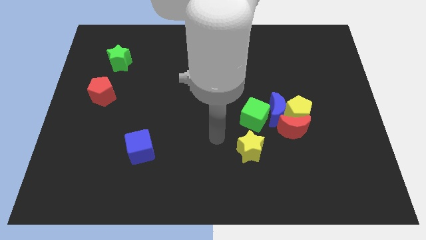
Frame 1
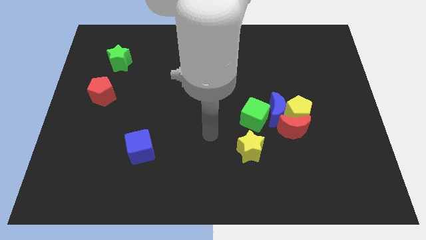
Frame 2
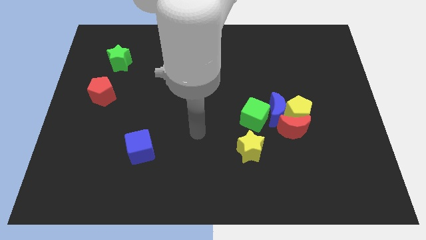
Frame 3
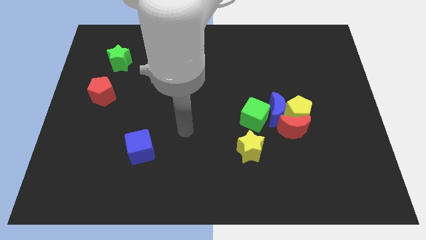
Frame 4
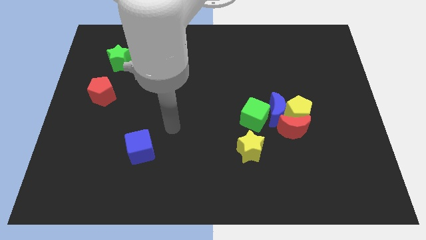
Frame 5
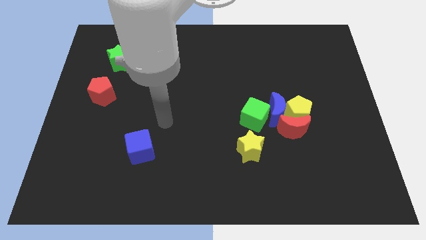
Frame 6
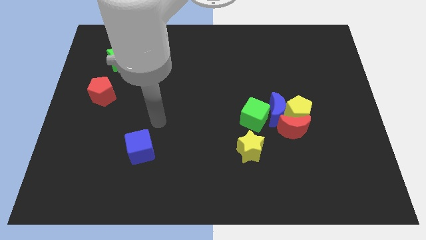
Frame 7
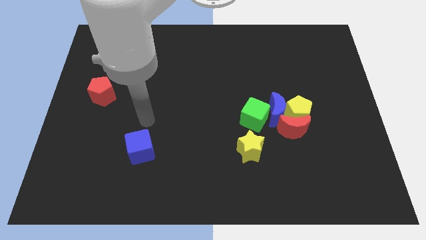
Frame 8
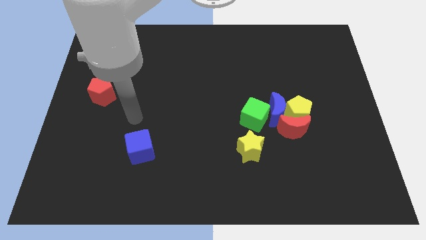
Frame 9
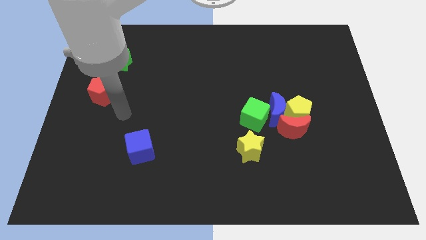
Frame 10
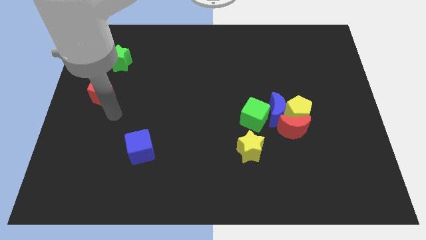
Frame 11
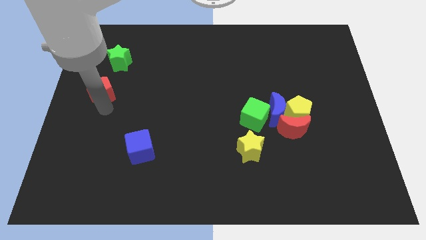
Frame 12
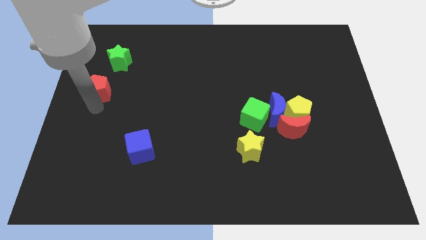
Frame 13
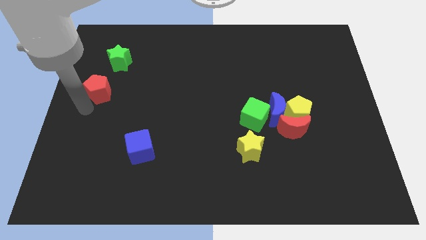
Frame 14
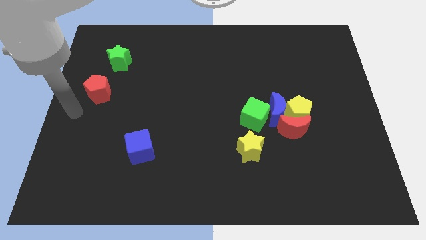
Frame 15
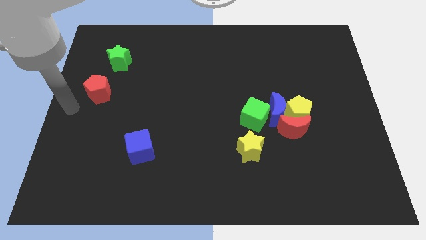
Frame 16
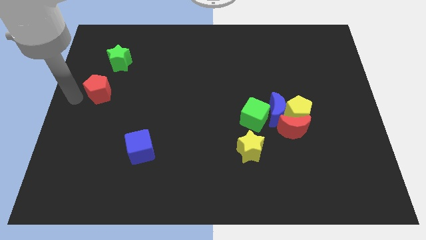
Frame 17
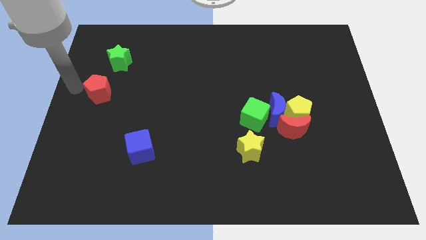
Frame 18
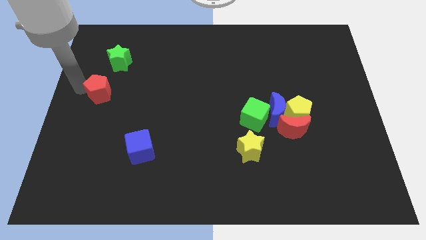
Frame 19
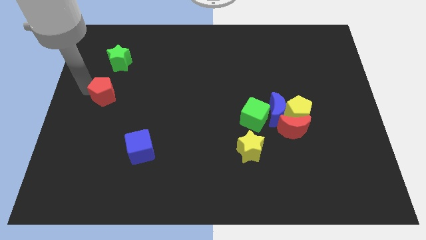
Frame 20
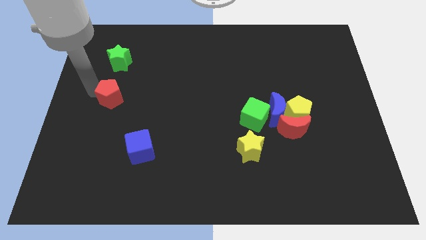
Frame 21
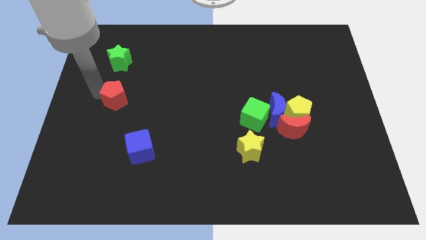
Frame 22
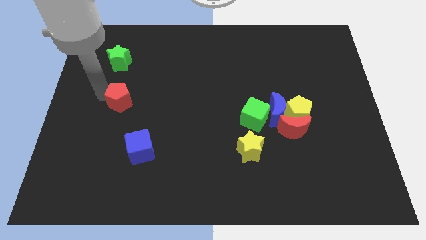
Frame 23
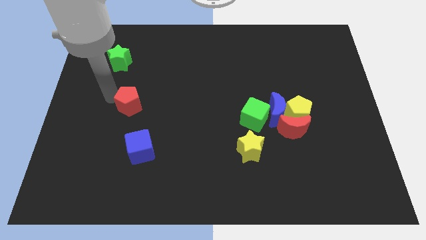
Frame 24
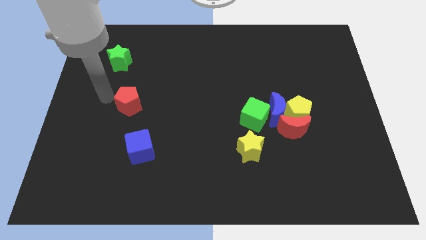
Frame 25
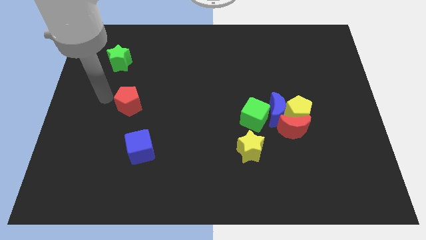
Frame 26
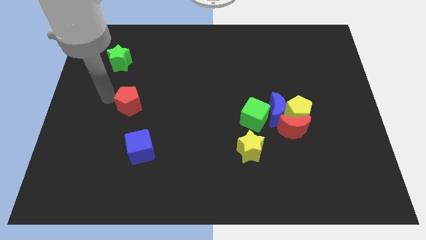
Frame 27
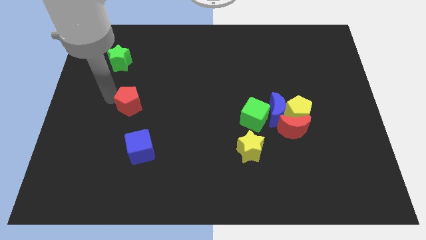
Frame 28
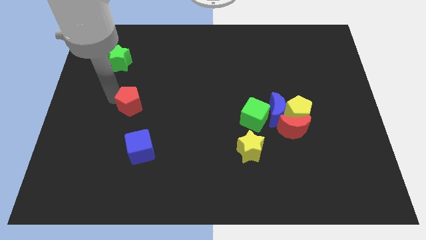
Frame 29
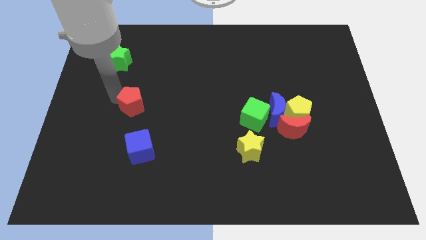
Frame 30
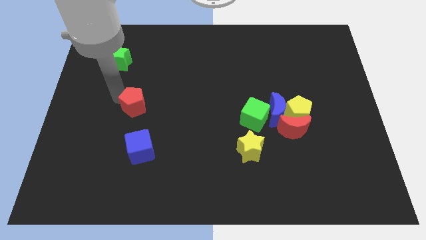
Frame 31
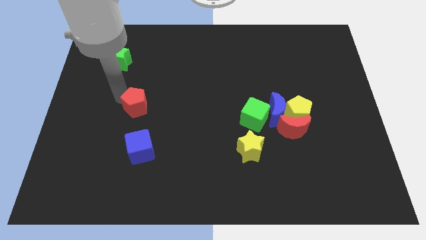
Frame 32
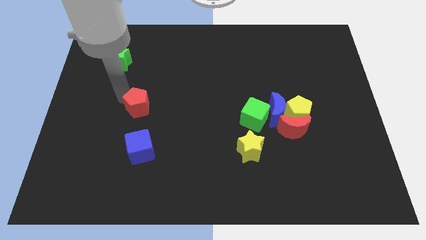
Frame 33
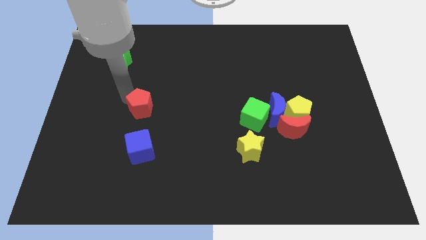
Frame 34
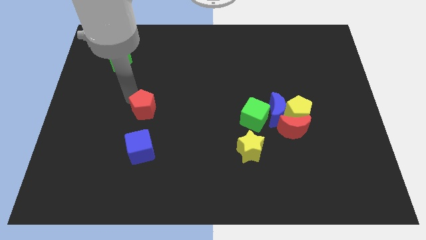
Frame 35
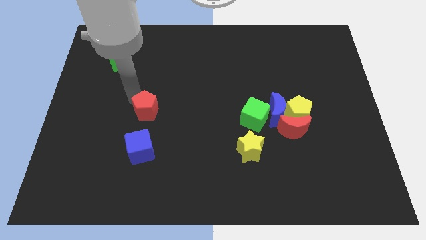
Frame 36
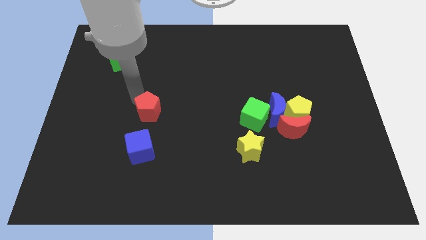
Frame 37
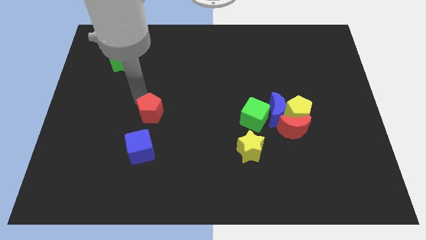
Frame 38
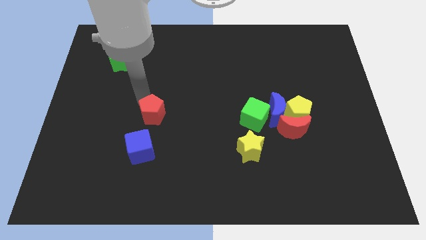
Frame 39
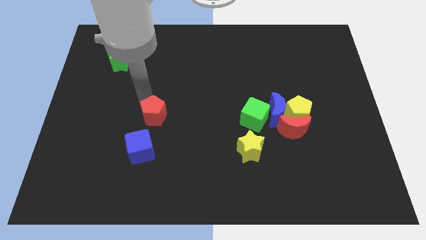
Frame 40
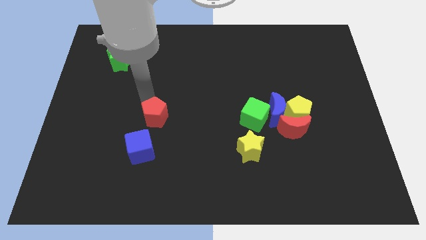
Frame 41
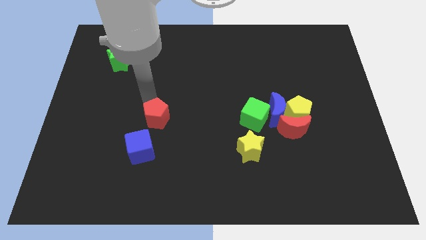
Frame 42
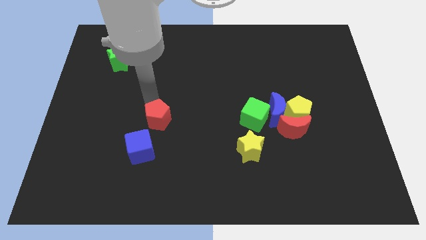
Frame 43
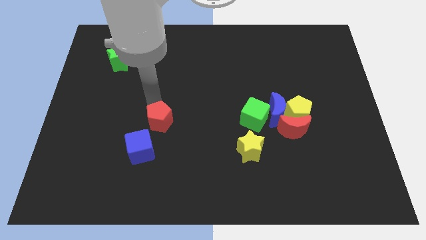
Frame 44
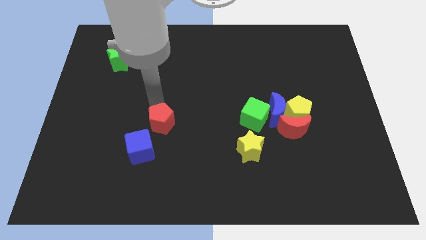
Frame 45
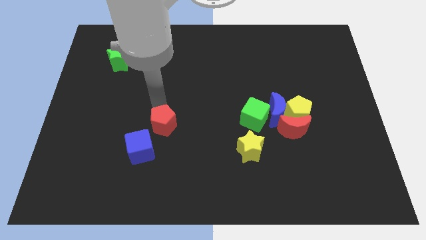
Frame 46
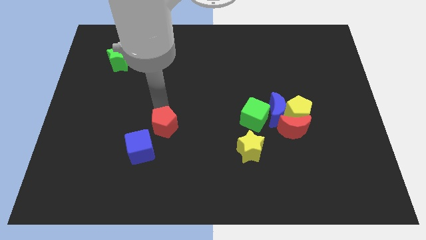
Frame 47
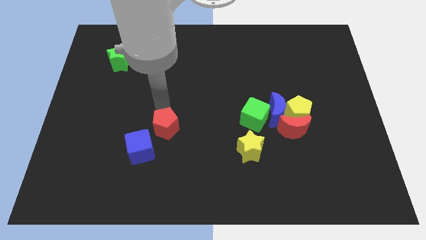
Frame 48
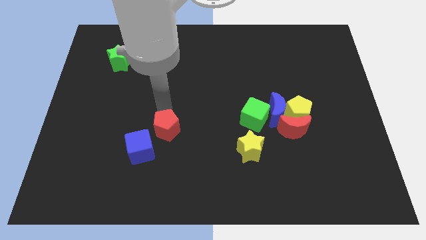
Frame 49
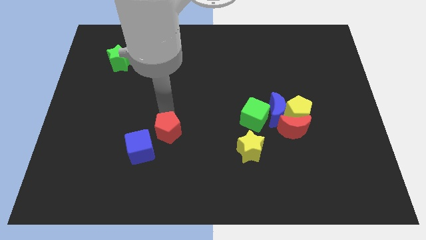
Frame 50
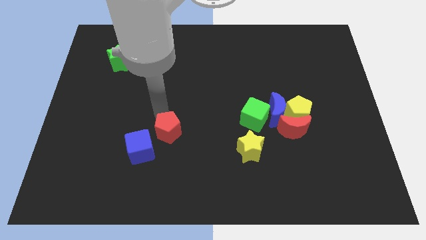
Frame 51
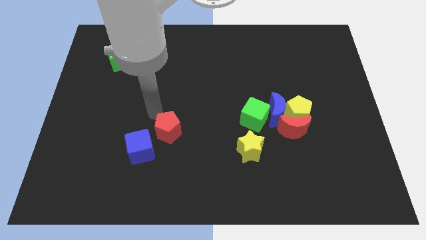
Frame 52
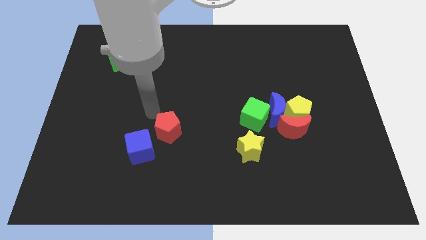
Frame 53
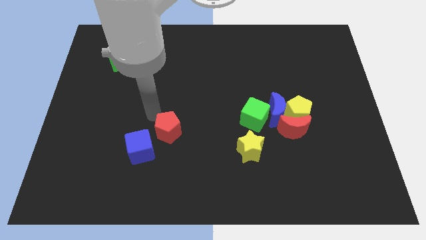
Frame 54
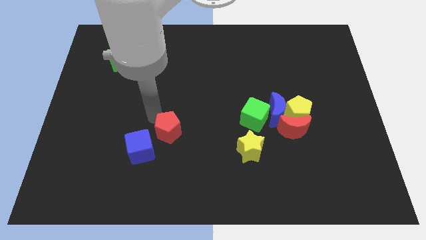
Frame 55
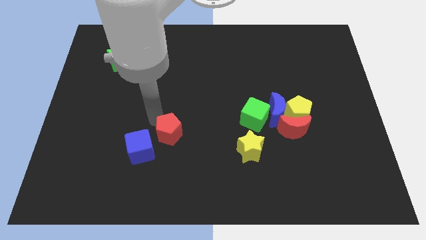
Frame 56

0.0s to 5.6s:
slide the red pentagon just right of the blue cube

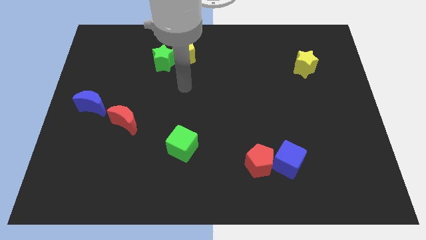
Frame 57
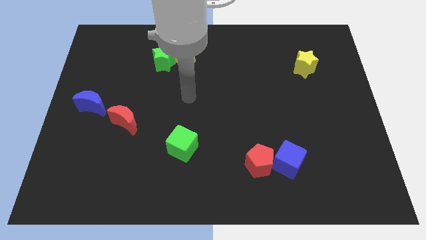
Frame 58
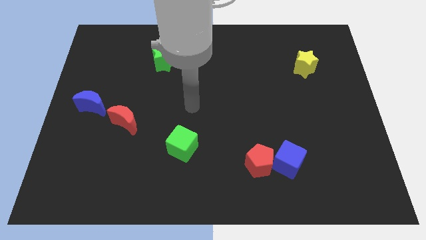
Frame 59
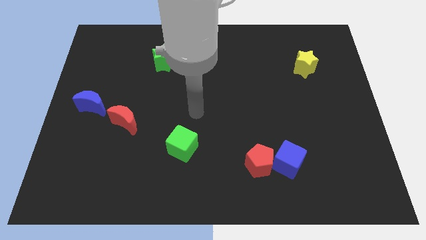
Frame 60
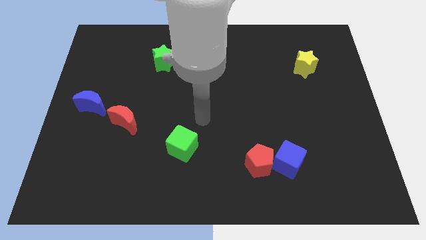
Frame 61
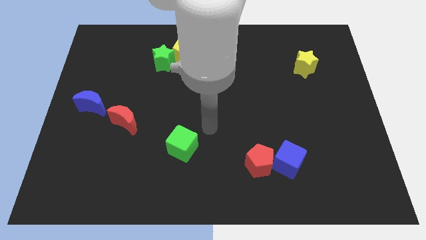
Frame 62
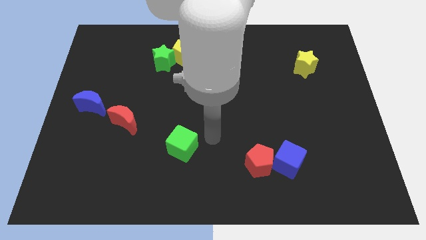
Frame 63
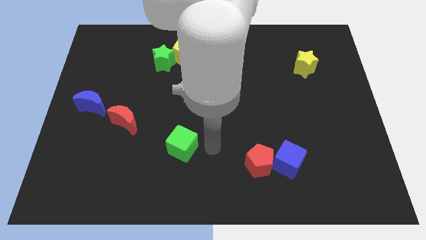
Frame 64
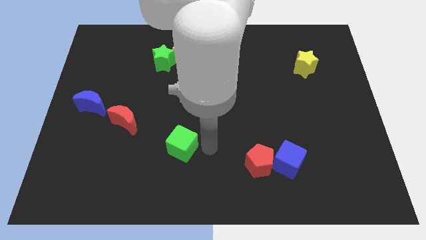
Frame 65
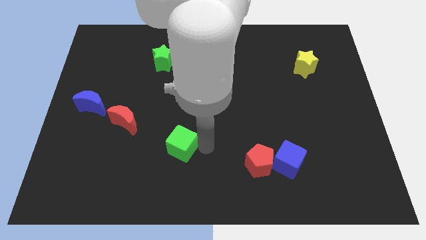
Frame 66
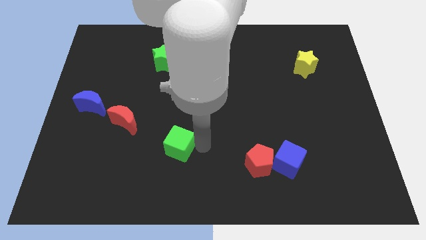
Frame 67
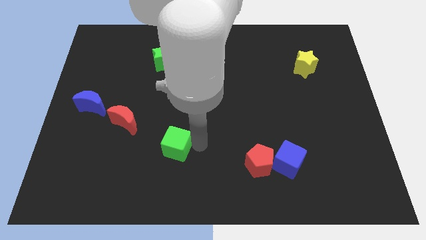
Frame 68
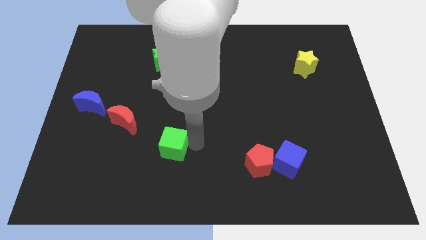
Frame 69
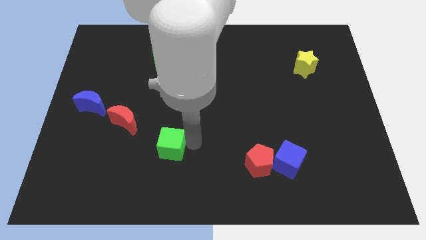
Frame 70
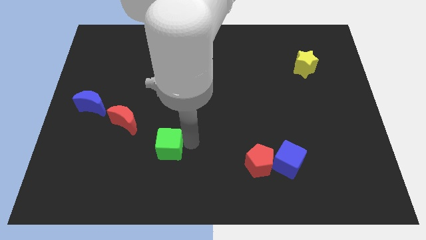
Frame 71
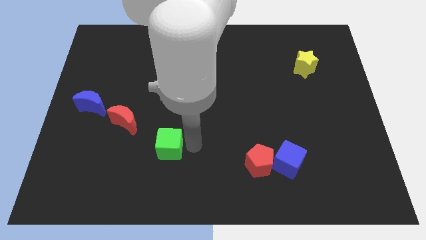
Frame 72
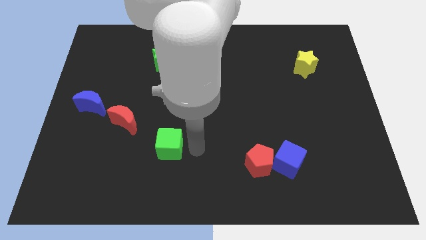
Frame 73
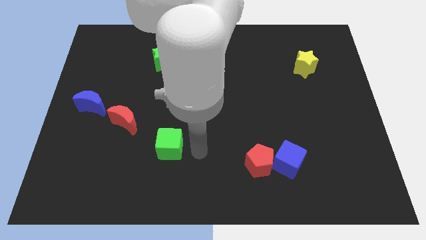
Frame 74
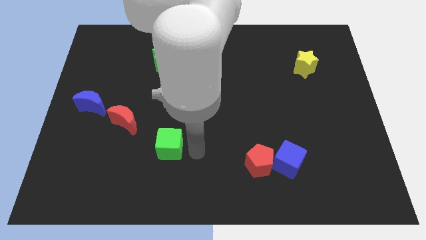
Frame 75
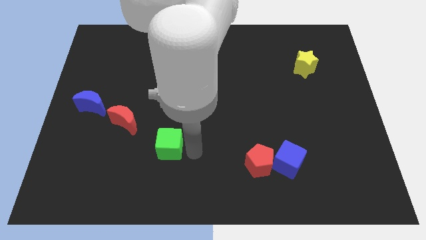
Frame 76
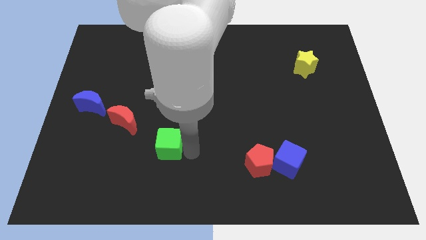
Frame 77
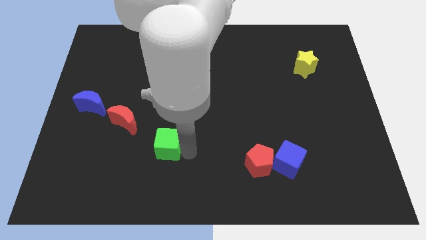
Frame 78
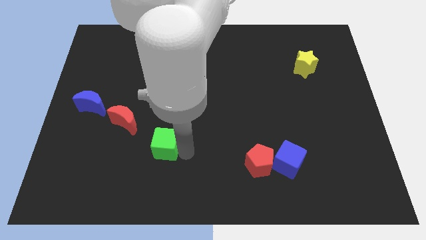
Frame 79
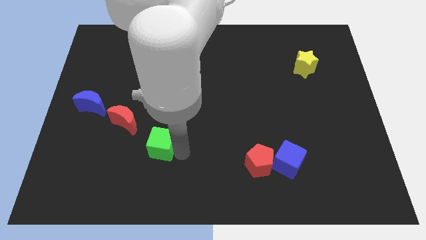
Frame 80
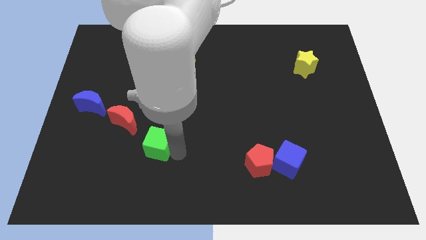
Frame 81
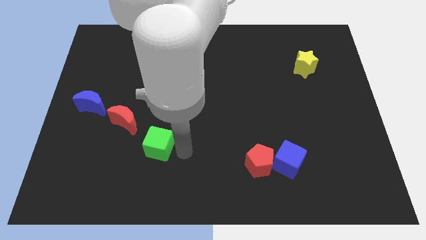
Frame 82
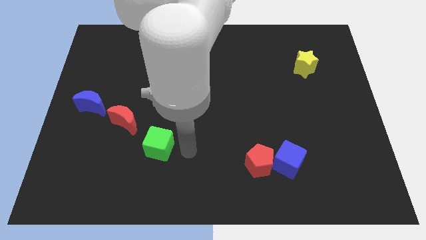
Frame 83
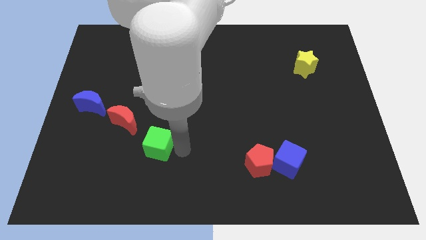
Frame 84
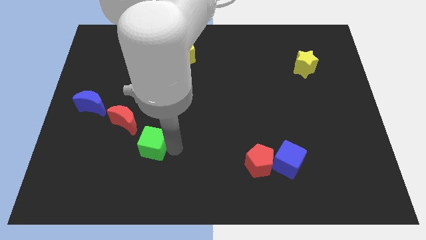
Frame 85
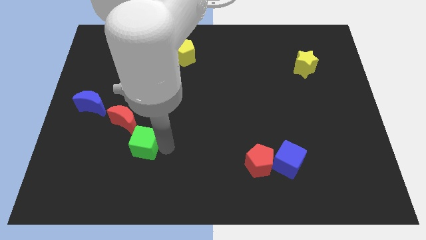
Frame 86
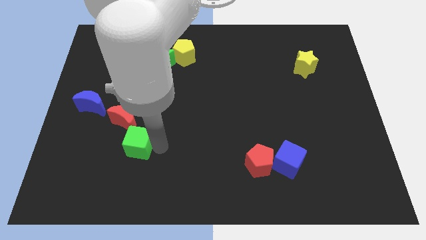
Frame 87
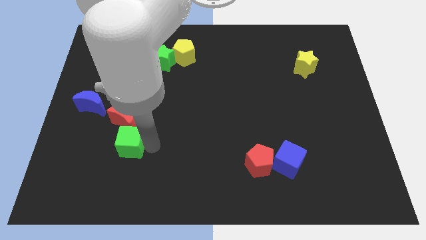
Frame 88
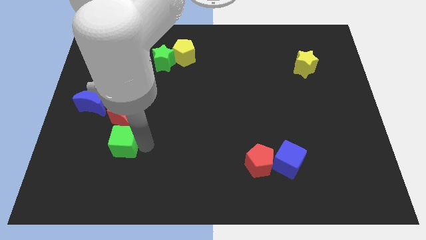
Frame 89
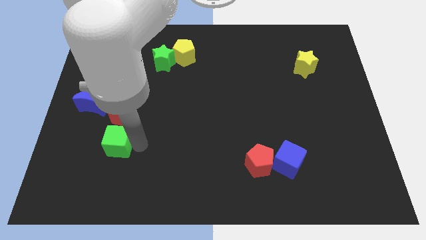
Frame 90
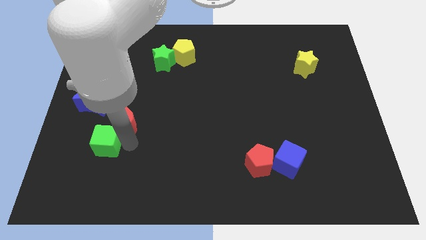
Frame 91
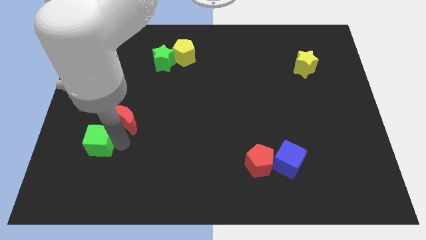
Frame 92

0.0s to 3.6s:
put the green cube to the bottom of the blue moon
